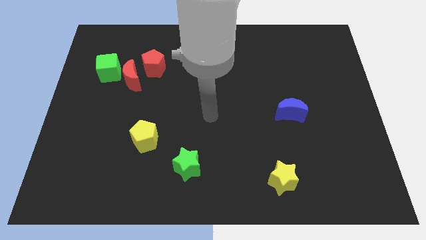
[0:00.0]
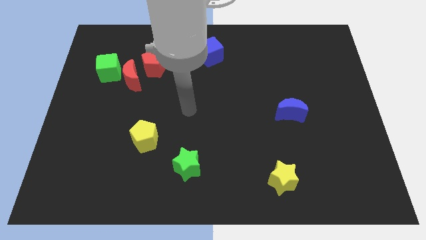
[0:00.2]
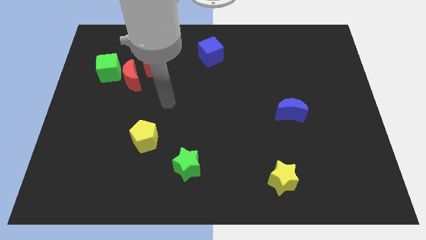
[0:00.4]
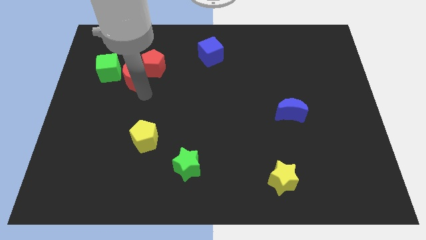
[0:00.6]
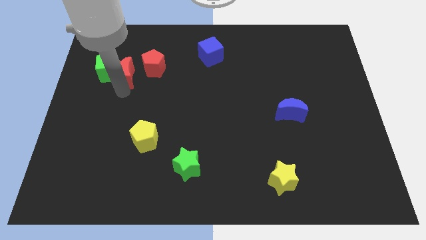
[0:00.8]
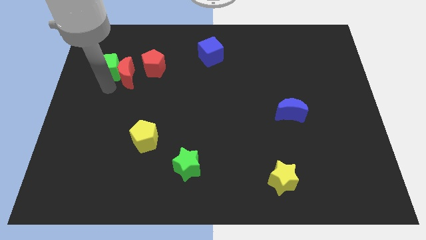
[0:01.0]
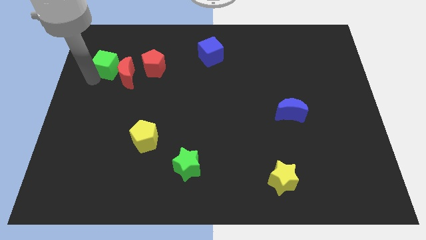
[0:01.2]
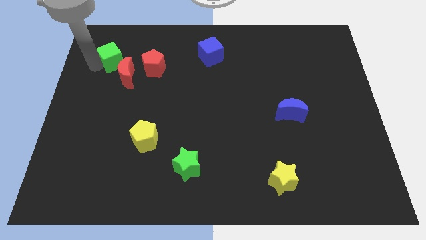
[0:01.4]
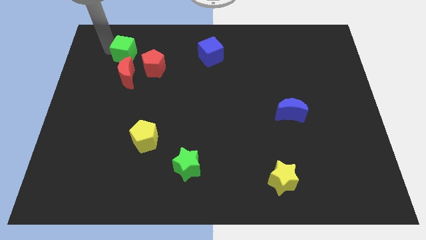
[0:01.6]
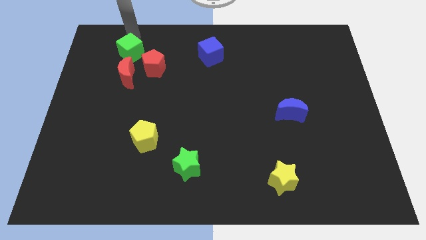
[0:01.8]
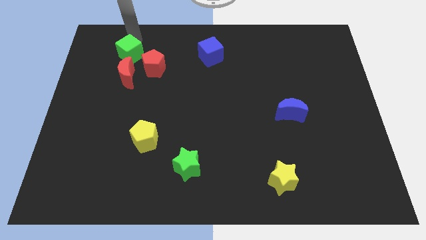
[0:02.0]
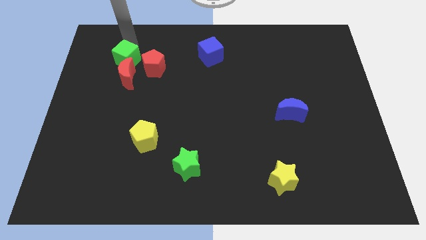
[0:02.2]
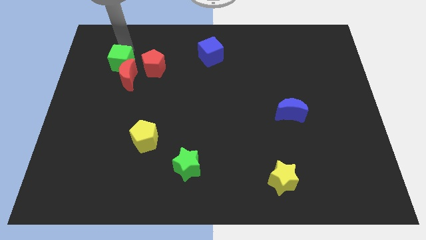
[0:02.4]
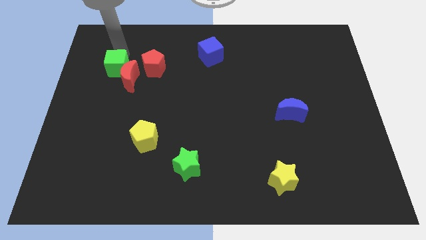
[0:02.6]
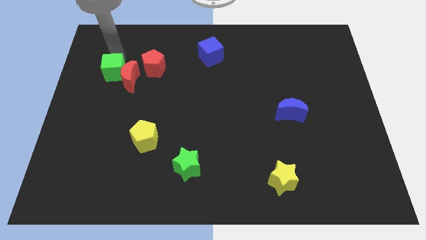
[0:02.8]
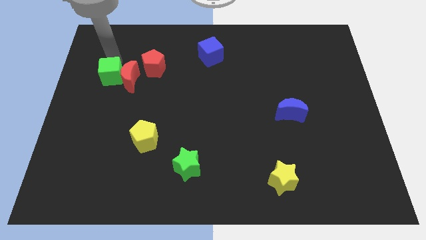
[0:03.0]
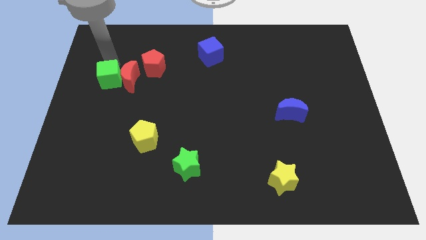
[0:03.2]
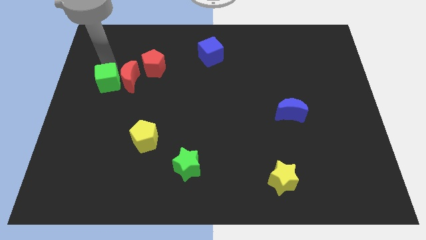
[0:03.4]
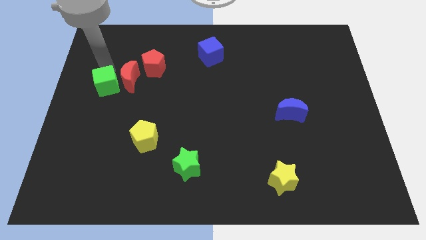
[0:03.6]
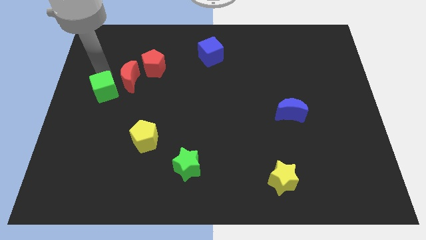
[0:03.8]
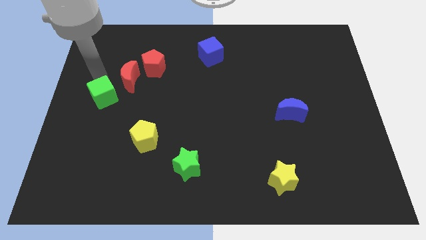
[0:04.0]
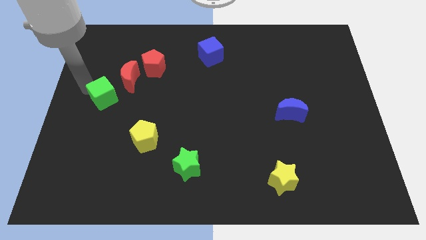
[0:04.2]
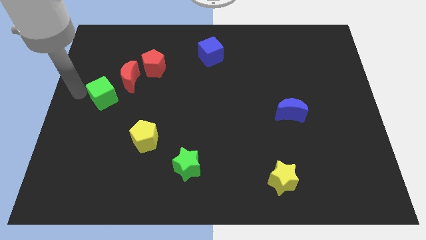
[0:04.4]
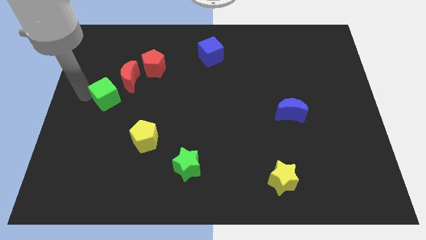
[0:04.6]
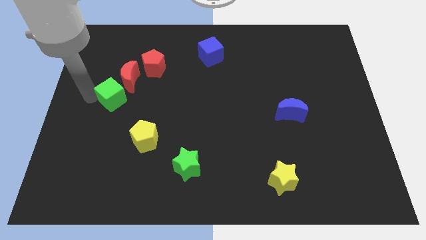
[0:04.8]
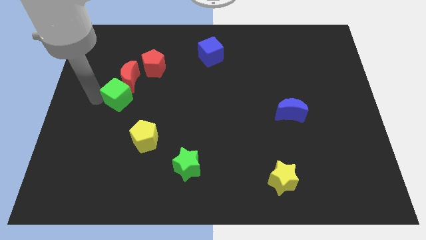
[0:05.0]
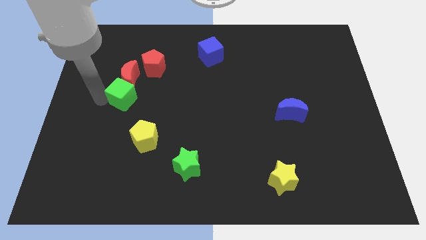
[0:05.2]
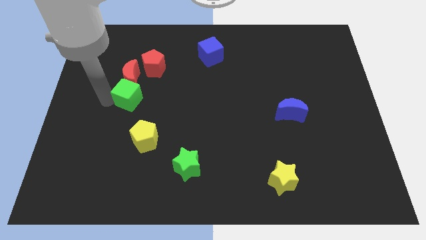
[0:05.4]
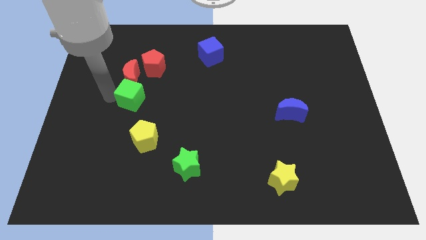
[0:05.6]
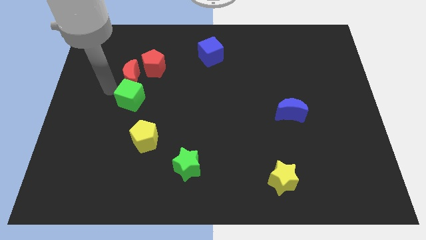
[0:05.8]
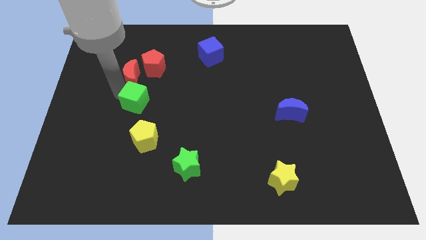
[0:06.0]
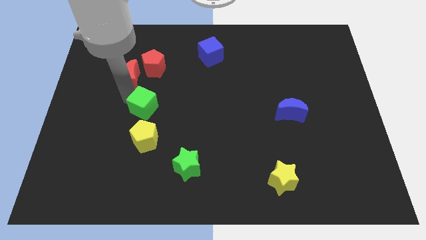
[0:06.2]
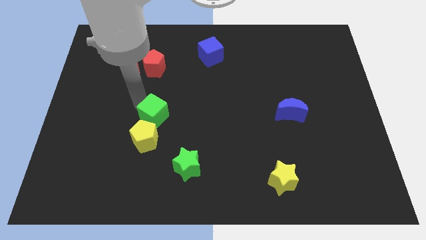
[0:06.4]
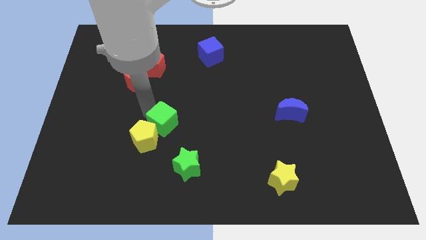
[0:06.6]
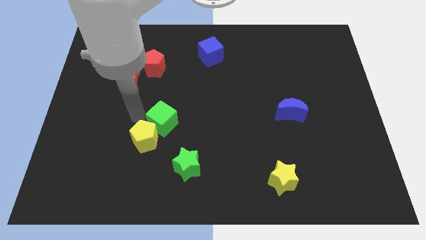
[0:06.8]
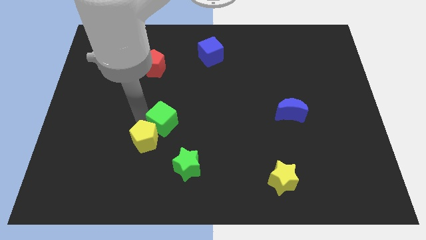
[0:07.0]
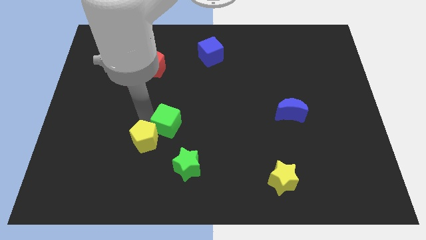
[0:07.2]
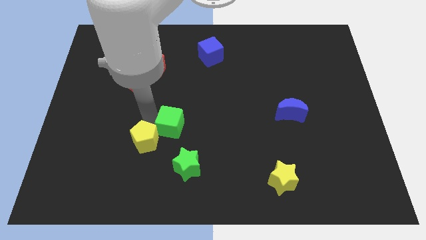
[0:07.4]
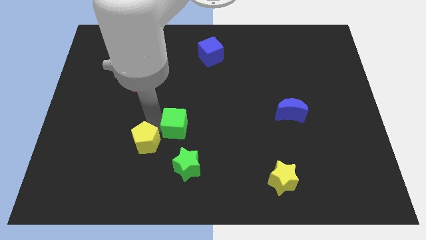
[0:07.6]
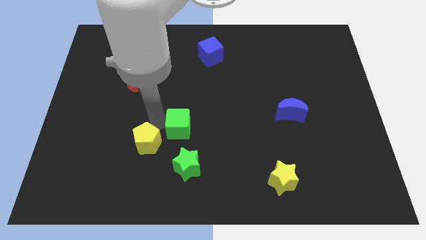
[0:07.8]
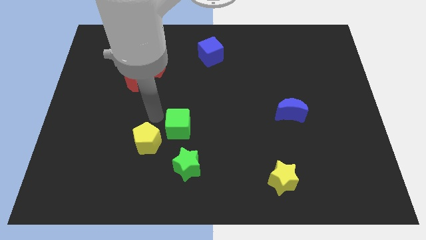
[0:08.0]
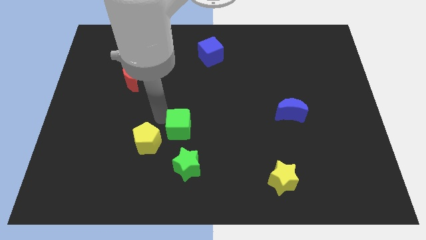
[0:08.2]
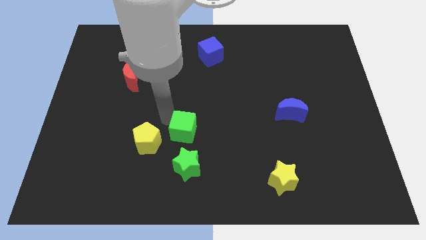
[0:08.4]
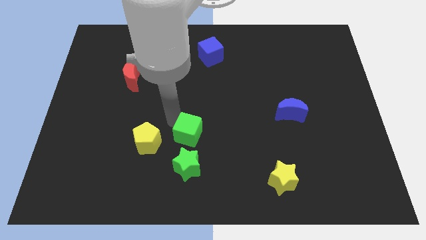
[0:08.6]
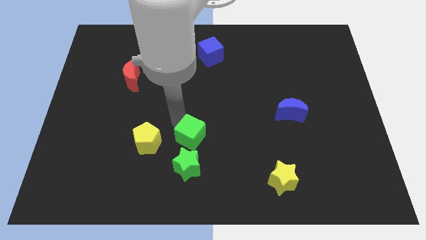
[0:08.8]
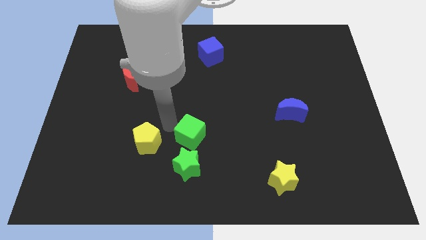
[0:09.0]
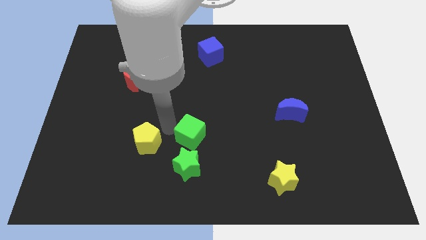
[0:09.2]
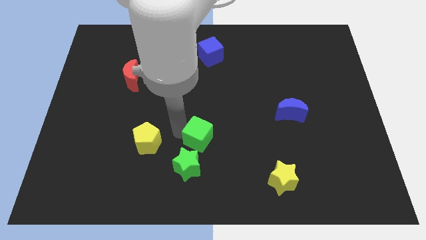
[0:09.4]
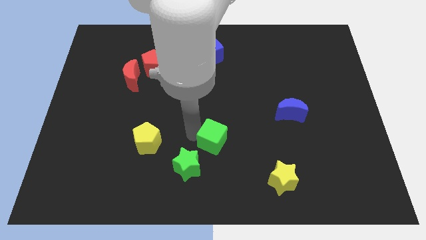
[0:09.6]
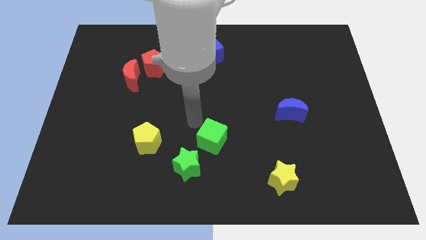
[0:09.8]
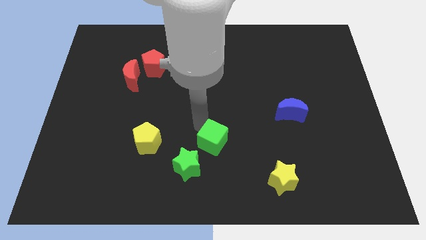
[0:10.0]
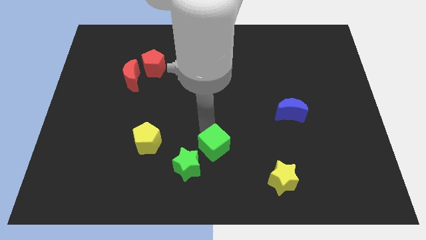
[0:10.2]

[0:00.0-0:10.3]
move the green cube to the right side of the green star

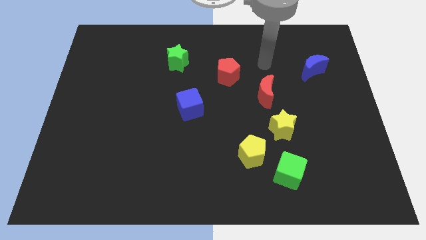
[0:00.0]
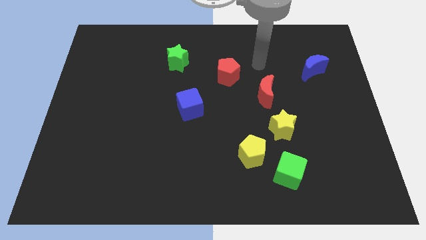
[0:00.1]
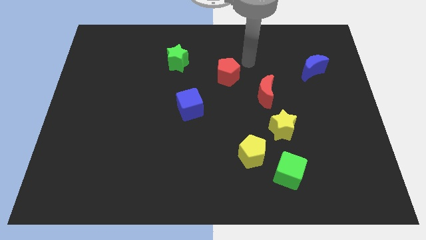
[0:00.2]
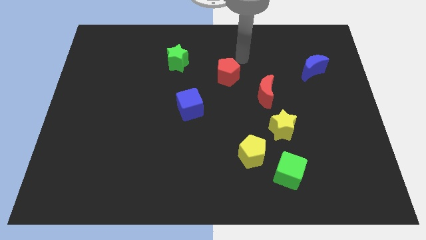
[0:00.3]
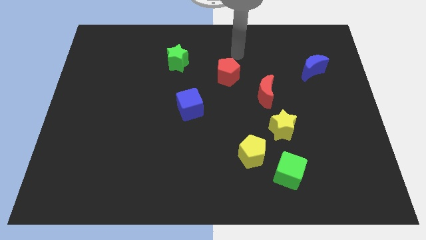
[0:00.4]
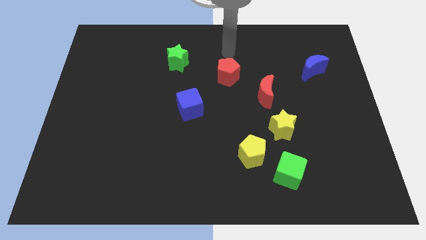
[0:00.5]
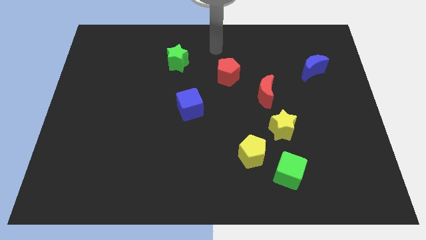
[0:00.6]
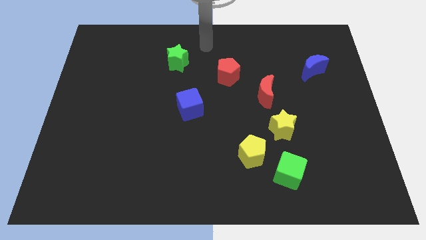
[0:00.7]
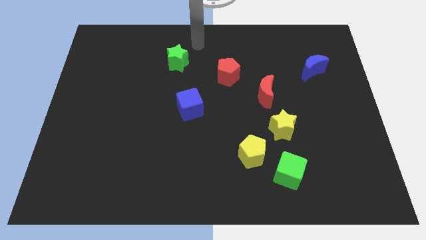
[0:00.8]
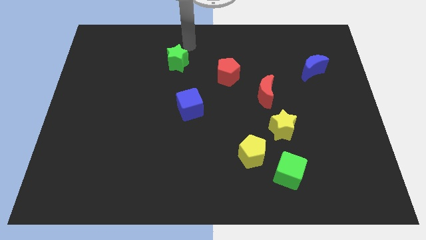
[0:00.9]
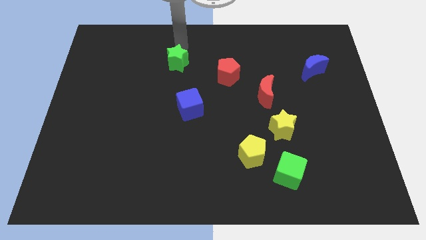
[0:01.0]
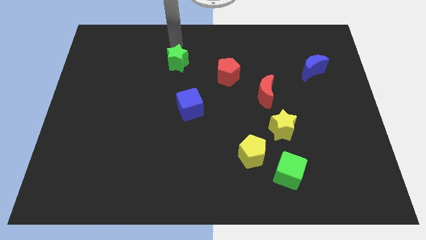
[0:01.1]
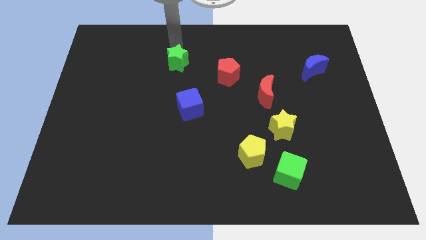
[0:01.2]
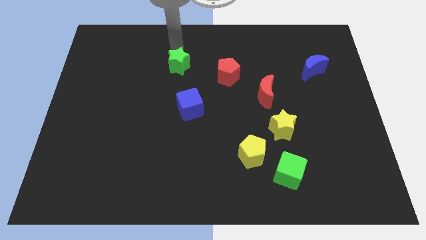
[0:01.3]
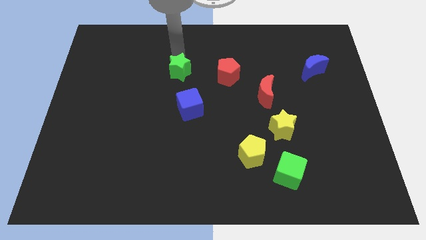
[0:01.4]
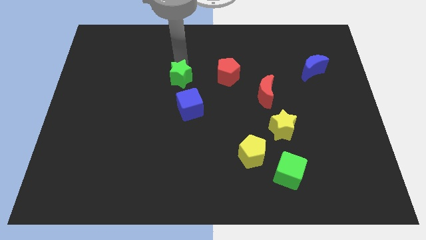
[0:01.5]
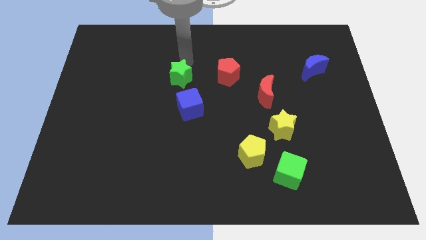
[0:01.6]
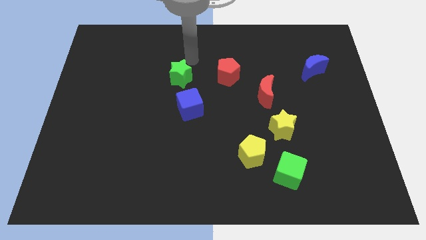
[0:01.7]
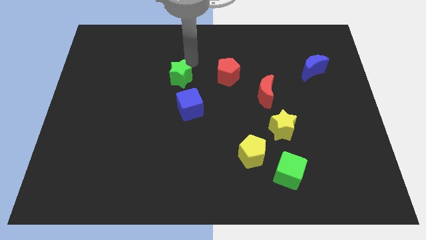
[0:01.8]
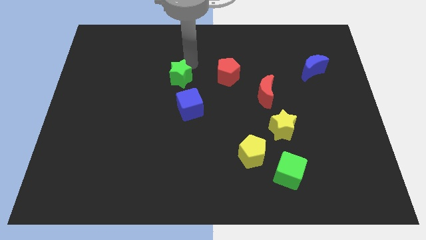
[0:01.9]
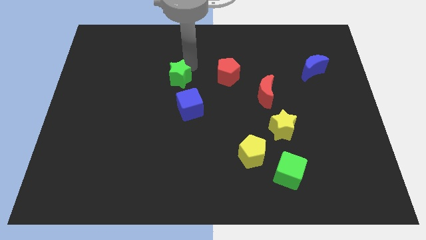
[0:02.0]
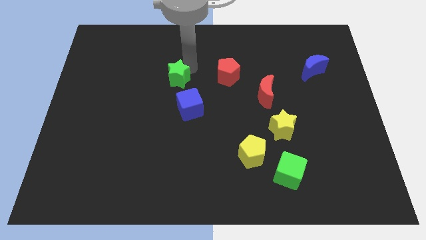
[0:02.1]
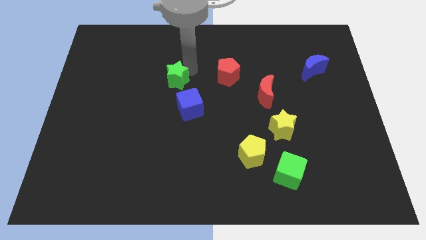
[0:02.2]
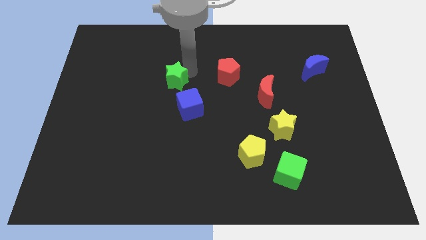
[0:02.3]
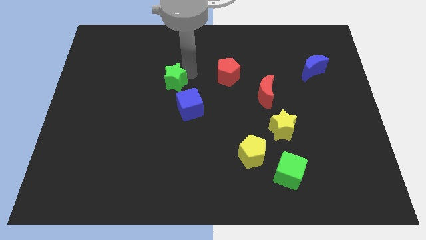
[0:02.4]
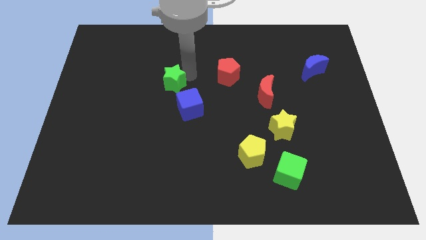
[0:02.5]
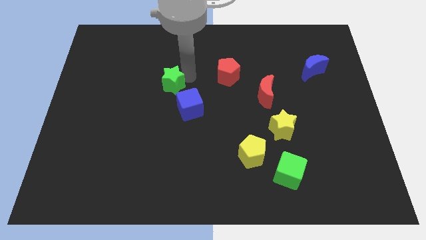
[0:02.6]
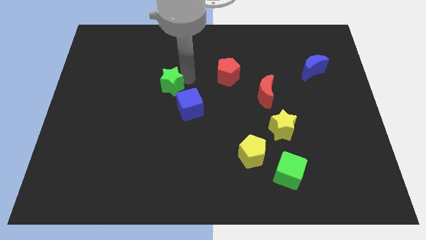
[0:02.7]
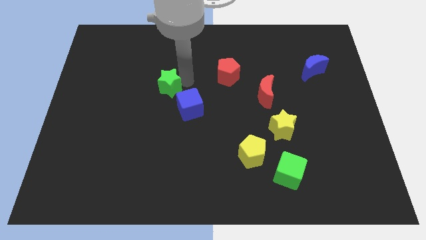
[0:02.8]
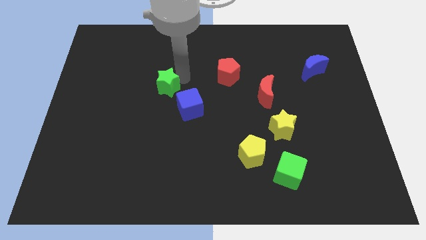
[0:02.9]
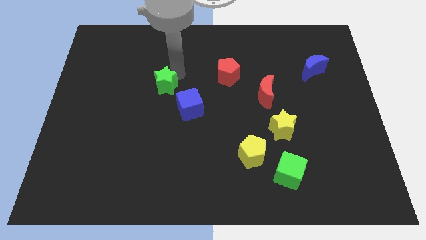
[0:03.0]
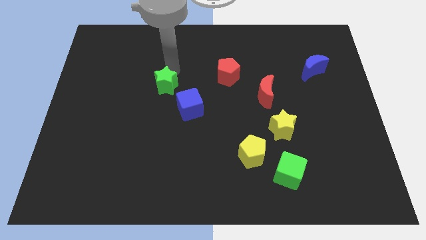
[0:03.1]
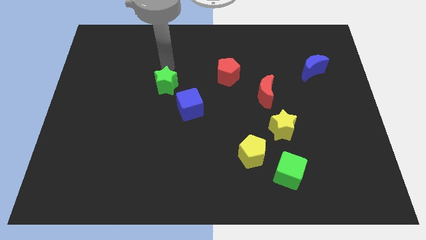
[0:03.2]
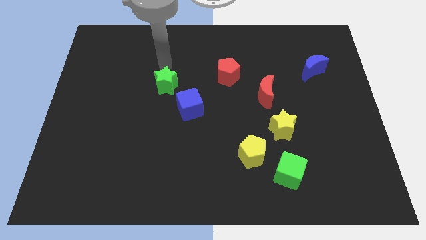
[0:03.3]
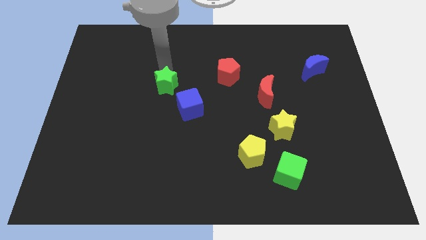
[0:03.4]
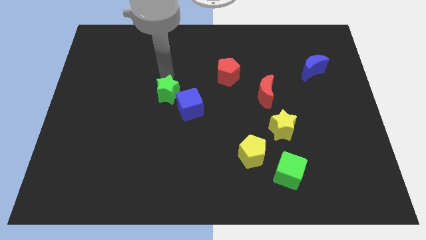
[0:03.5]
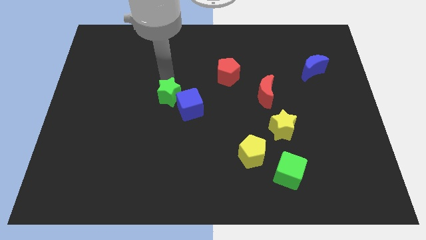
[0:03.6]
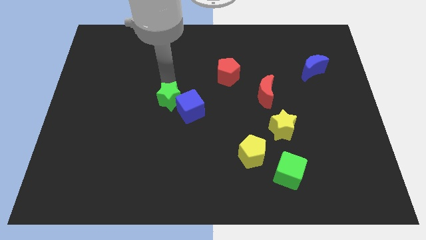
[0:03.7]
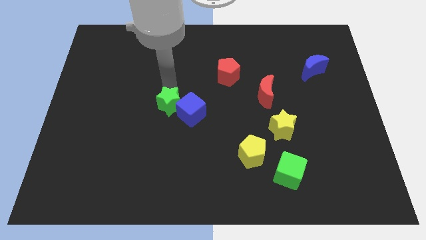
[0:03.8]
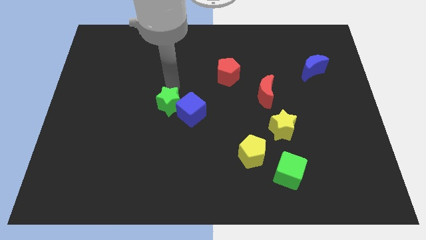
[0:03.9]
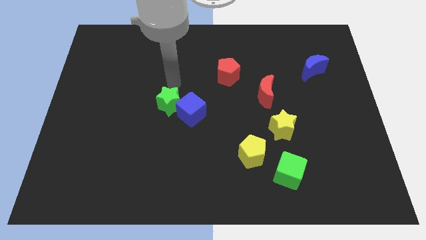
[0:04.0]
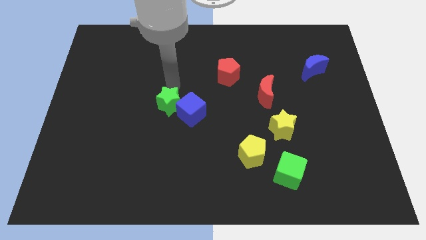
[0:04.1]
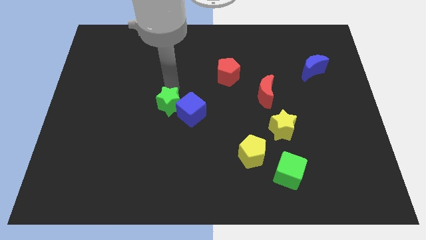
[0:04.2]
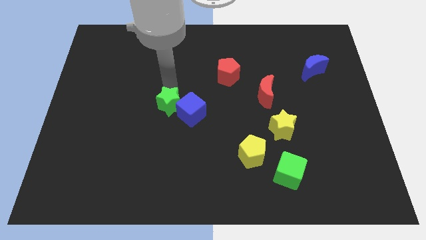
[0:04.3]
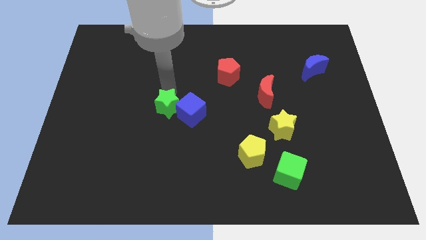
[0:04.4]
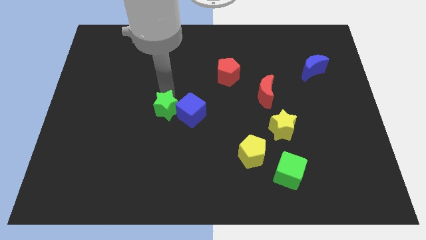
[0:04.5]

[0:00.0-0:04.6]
put the green star to the bottom left side of the blue cube
